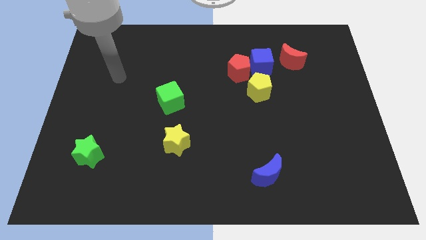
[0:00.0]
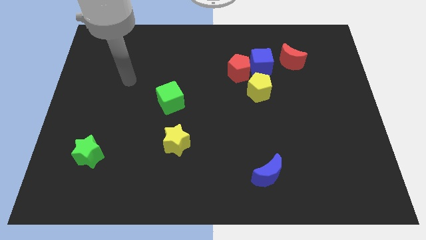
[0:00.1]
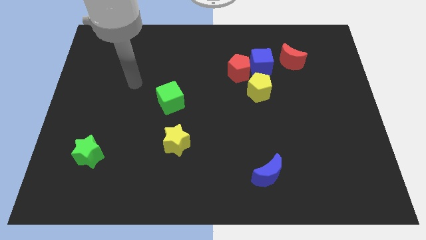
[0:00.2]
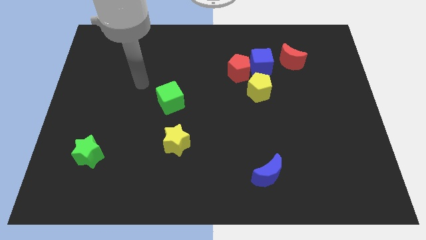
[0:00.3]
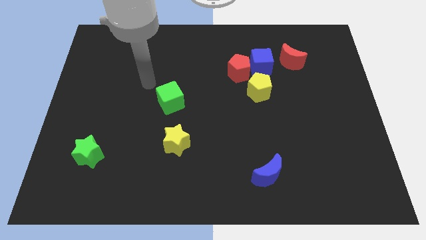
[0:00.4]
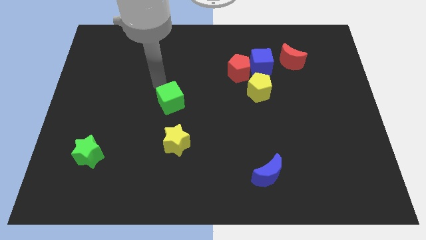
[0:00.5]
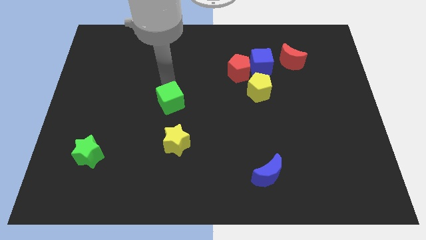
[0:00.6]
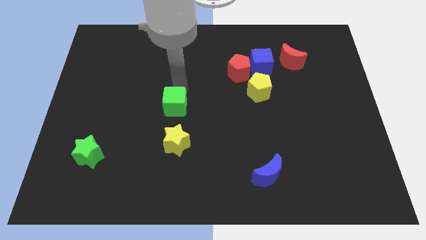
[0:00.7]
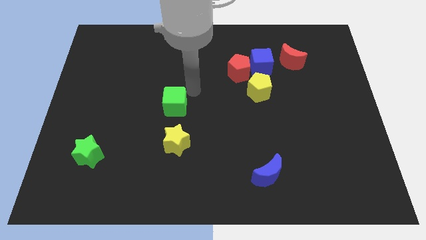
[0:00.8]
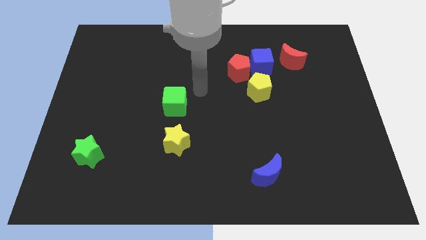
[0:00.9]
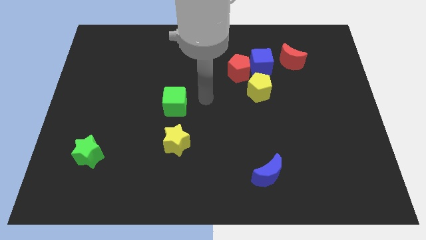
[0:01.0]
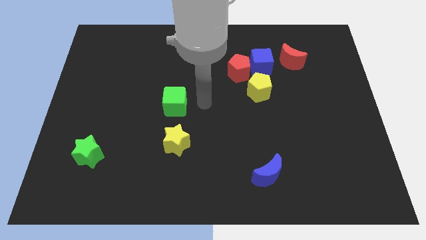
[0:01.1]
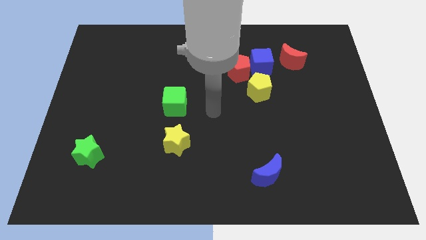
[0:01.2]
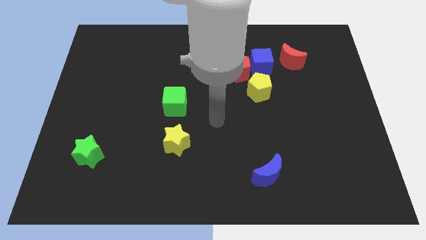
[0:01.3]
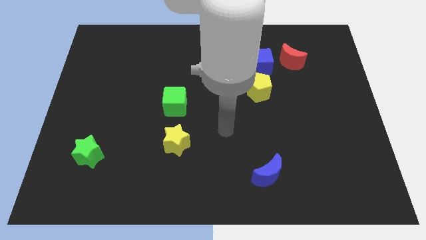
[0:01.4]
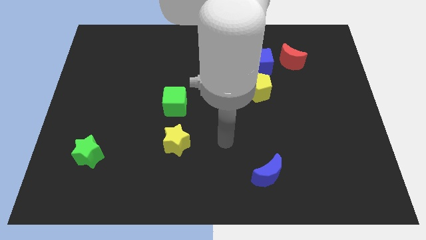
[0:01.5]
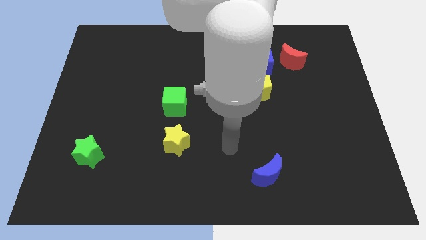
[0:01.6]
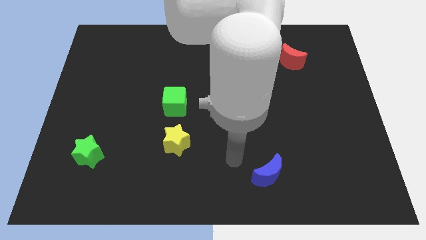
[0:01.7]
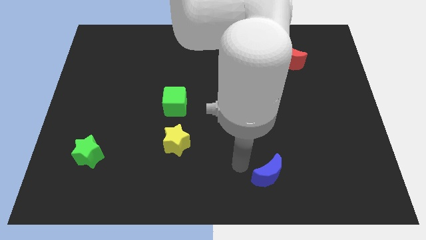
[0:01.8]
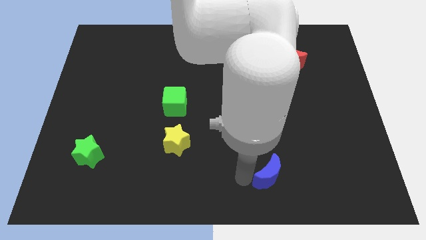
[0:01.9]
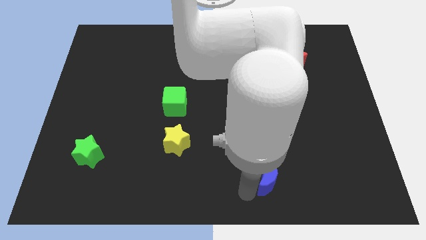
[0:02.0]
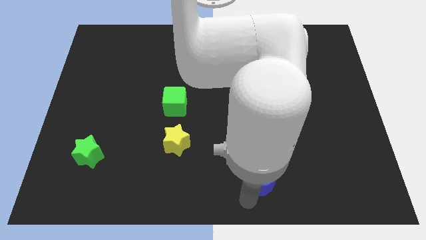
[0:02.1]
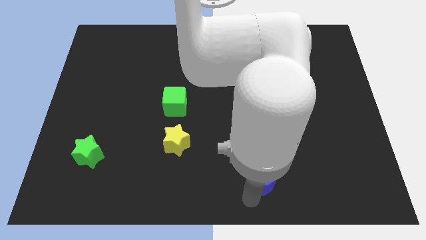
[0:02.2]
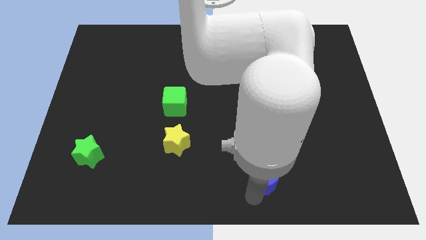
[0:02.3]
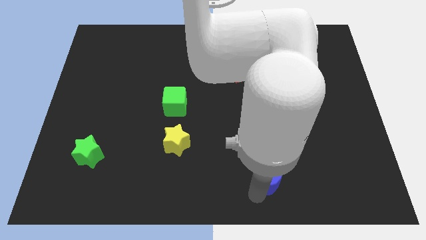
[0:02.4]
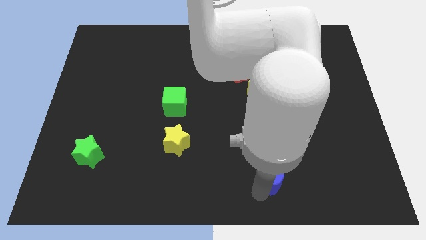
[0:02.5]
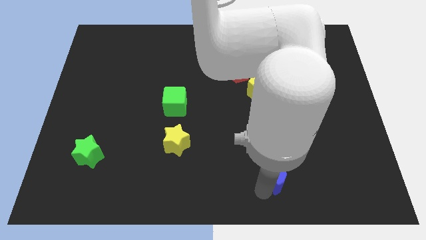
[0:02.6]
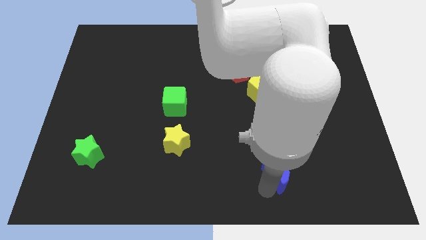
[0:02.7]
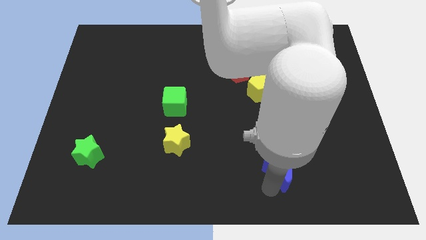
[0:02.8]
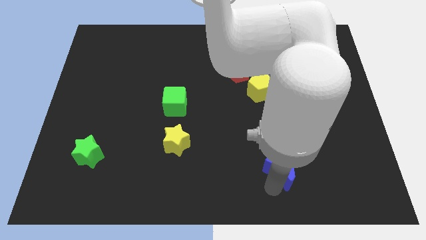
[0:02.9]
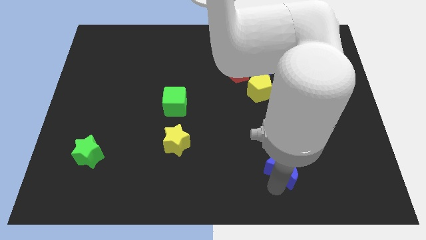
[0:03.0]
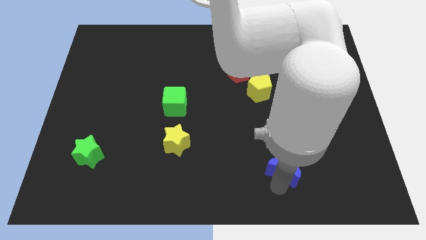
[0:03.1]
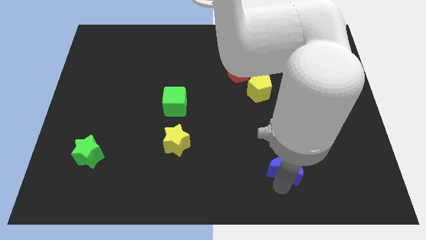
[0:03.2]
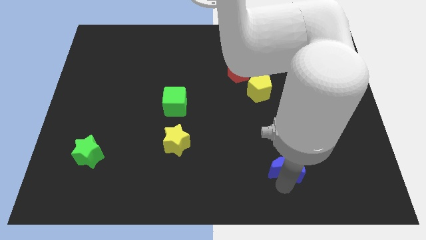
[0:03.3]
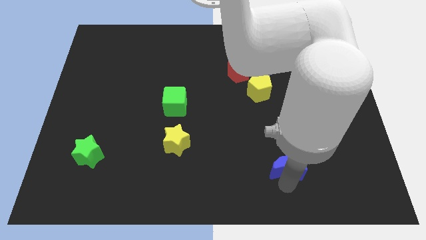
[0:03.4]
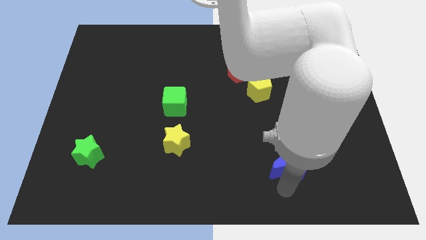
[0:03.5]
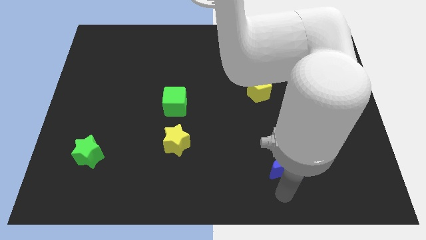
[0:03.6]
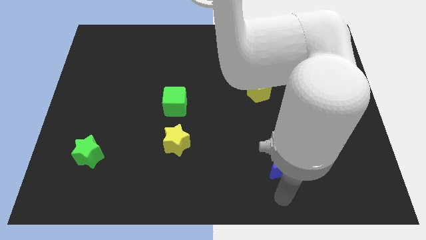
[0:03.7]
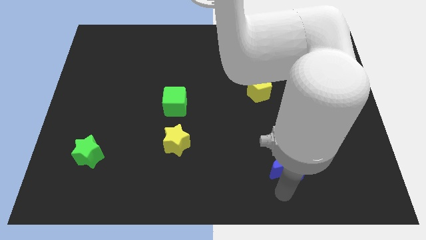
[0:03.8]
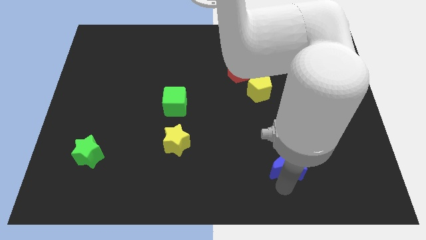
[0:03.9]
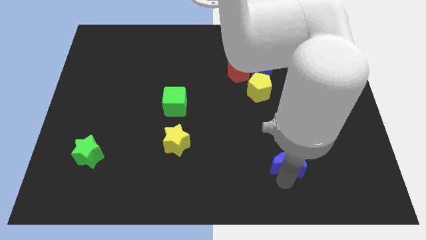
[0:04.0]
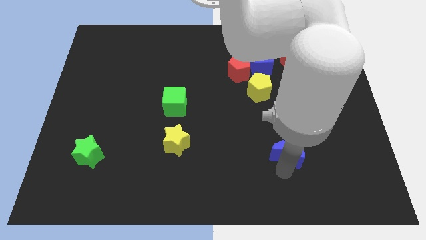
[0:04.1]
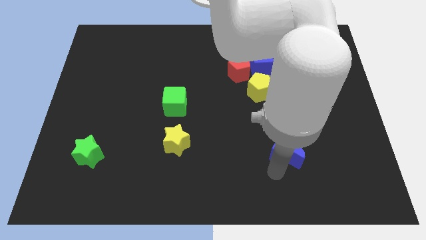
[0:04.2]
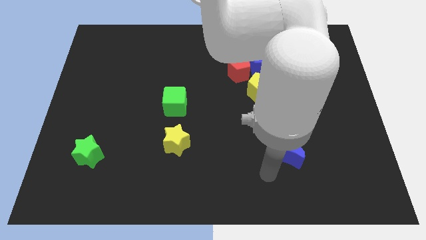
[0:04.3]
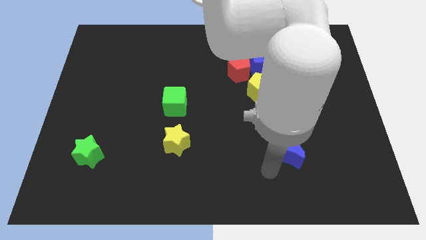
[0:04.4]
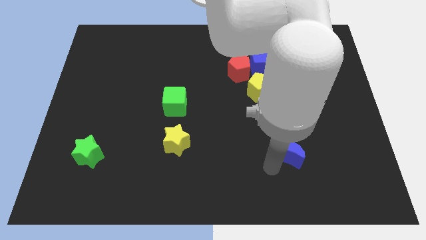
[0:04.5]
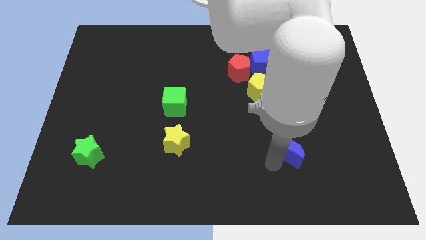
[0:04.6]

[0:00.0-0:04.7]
move the blue moon up and right diagonally a bit

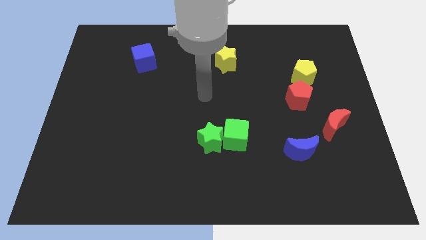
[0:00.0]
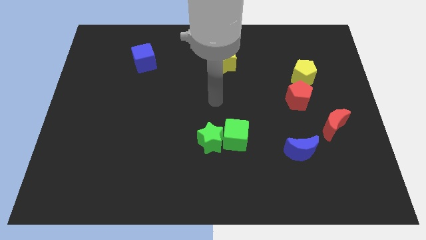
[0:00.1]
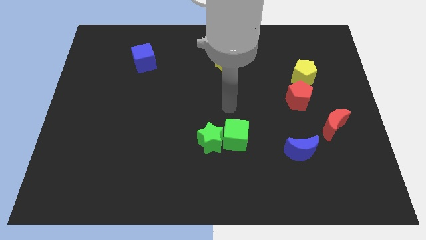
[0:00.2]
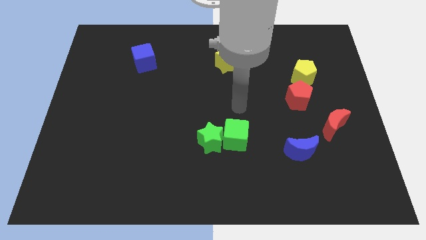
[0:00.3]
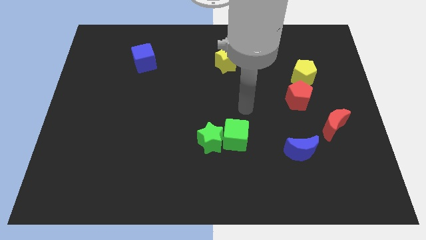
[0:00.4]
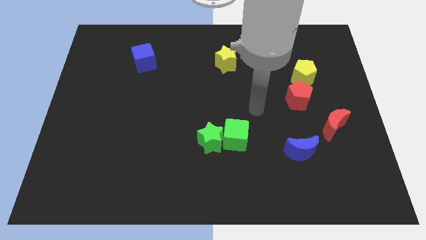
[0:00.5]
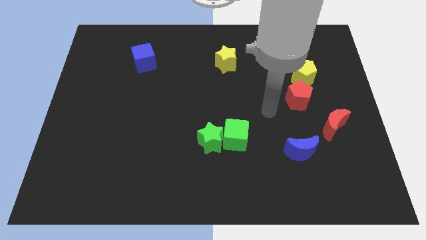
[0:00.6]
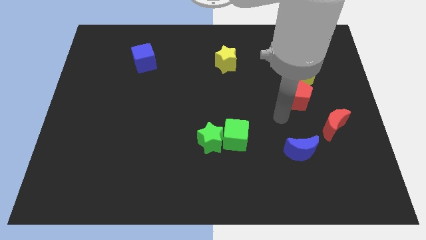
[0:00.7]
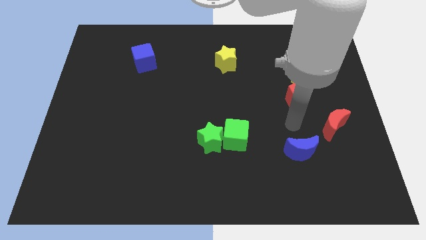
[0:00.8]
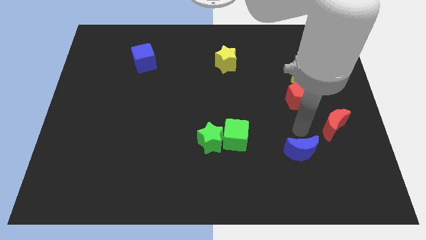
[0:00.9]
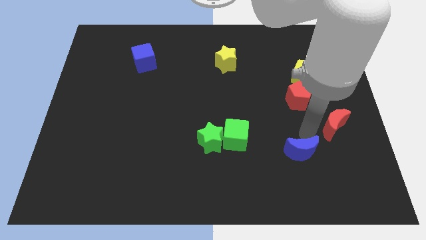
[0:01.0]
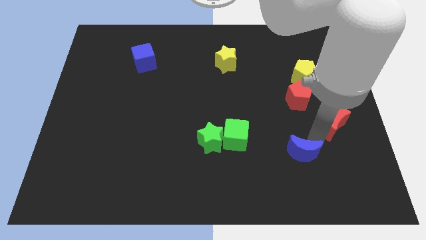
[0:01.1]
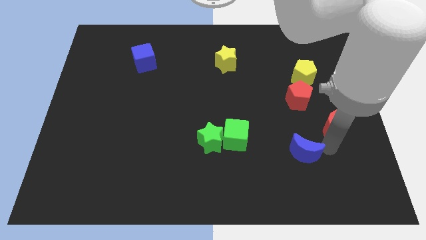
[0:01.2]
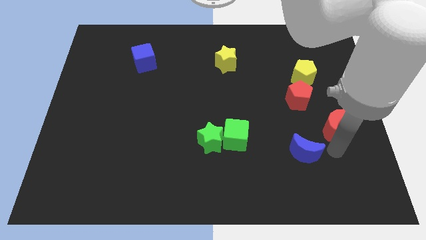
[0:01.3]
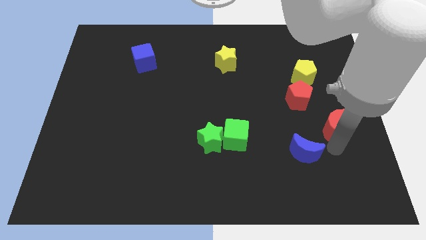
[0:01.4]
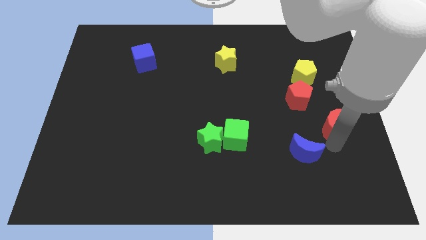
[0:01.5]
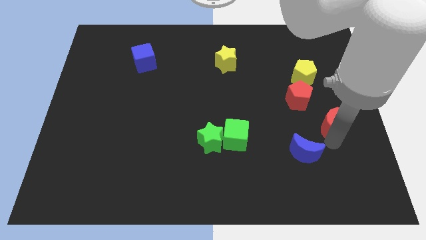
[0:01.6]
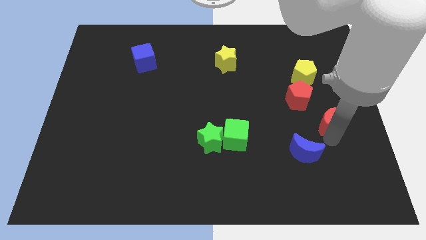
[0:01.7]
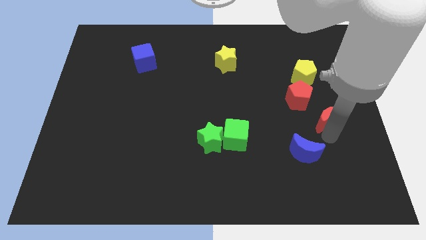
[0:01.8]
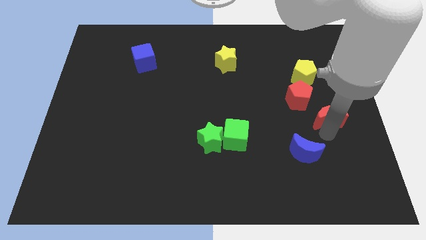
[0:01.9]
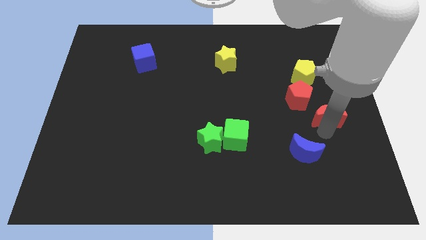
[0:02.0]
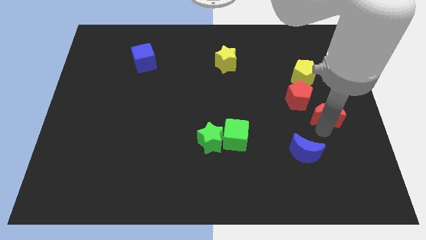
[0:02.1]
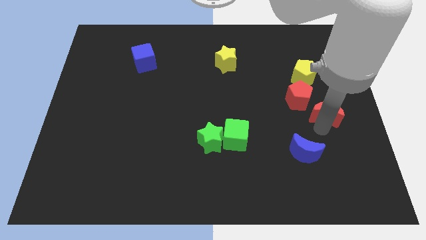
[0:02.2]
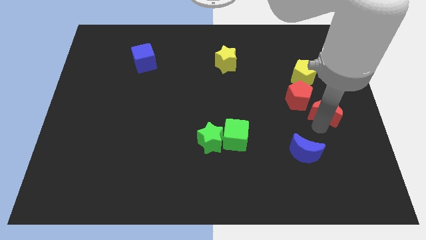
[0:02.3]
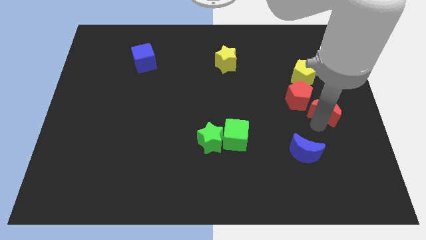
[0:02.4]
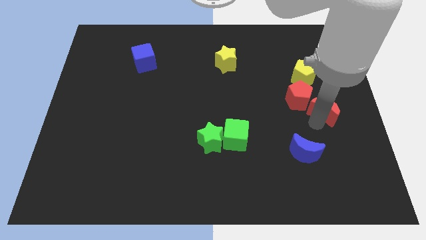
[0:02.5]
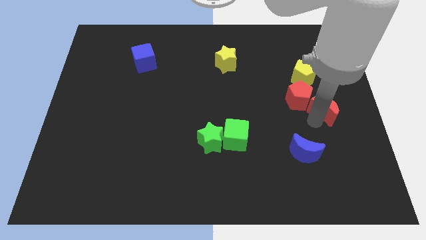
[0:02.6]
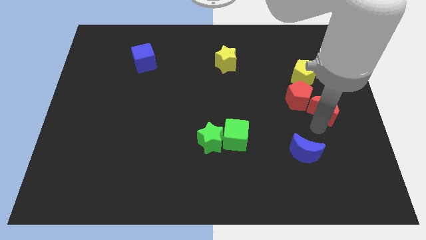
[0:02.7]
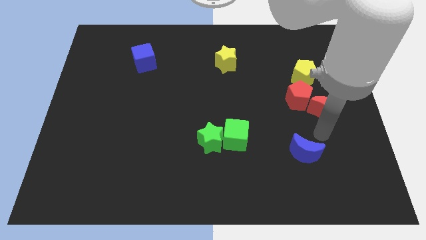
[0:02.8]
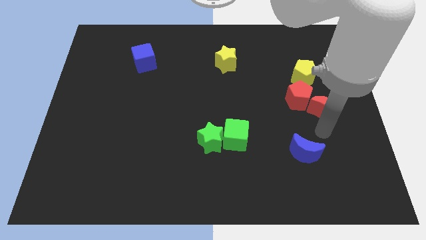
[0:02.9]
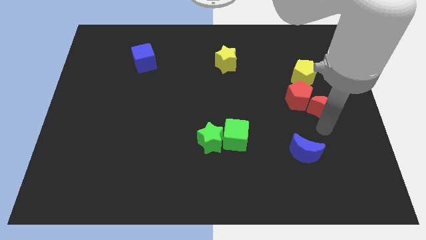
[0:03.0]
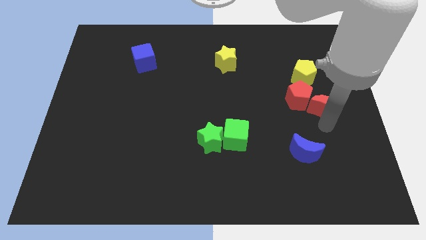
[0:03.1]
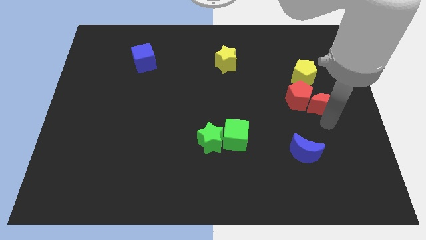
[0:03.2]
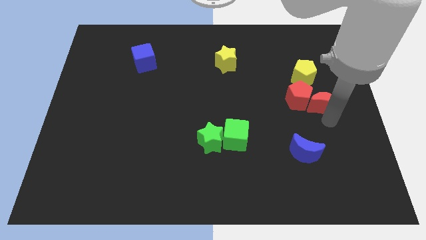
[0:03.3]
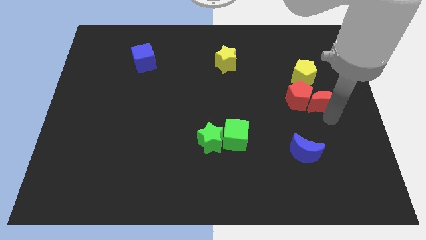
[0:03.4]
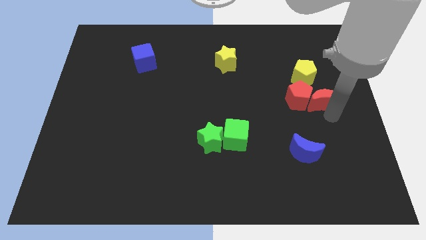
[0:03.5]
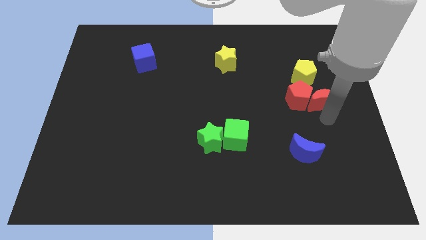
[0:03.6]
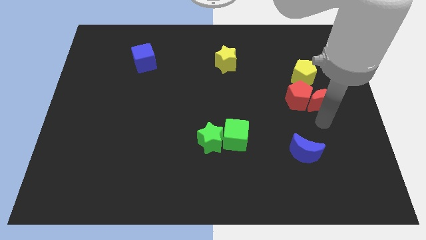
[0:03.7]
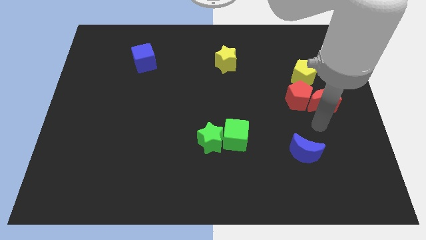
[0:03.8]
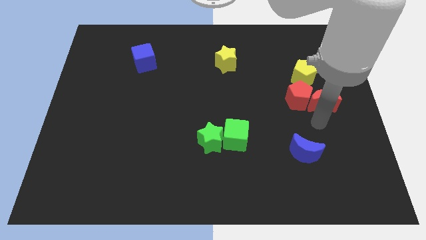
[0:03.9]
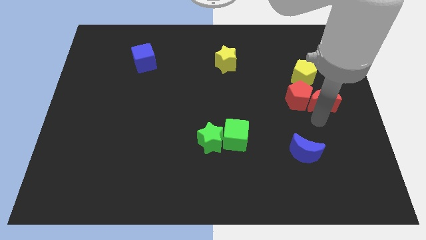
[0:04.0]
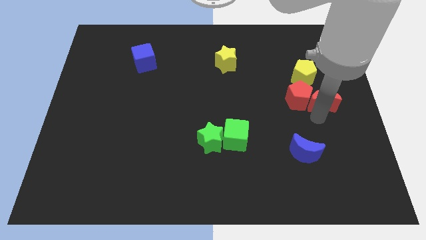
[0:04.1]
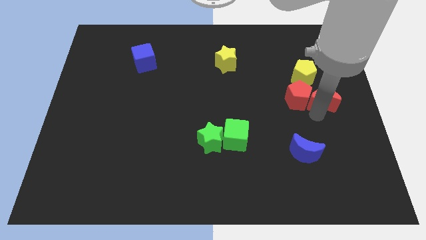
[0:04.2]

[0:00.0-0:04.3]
push the red moon up a bit
